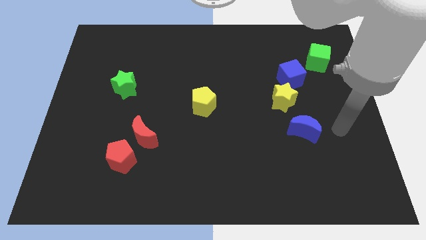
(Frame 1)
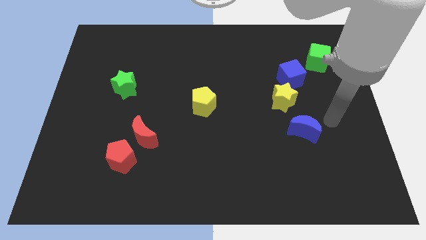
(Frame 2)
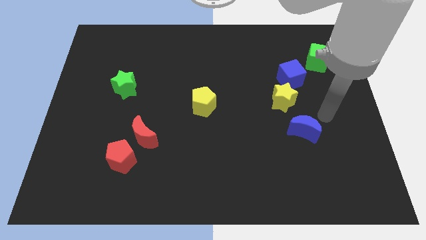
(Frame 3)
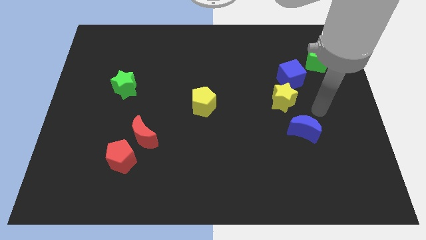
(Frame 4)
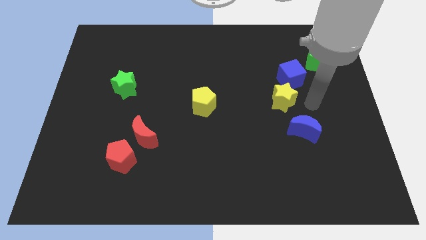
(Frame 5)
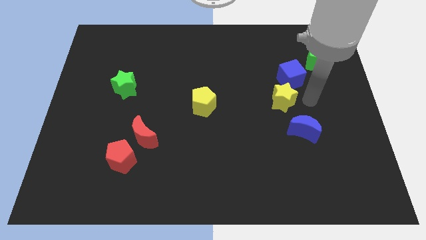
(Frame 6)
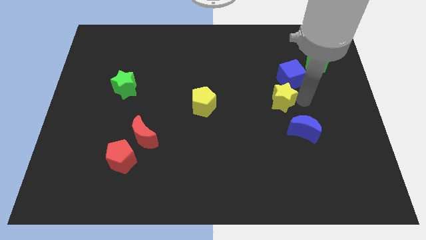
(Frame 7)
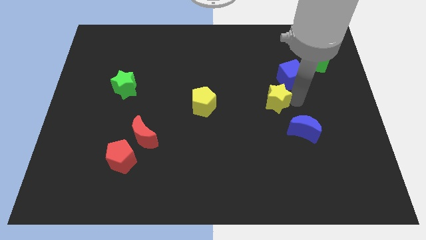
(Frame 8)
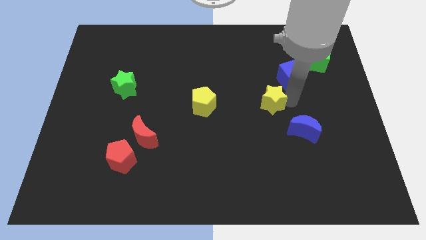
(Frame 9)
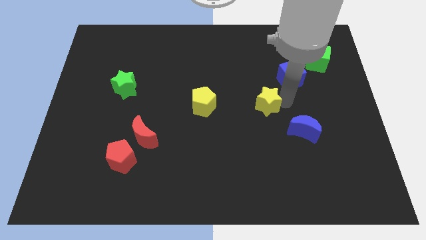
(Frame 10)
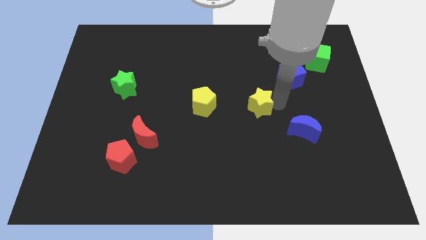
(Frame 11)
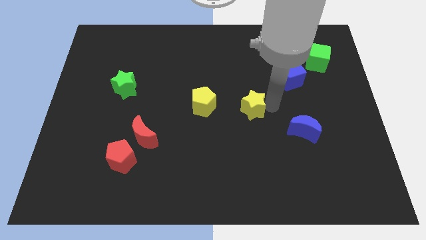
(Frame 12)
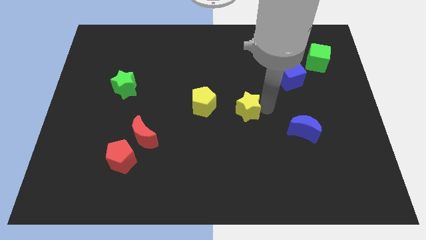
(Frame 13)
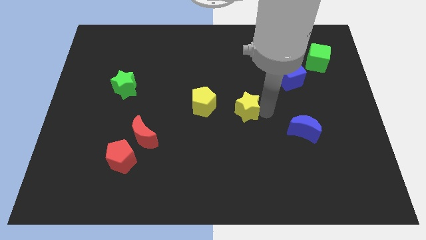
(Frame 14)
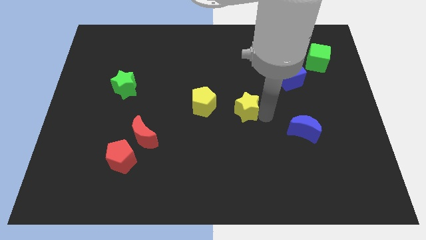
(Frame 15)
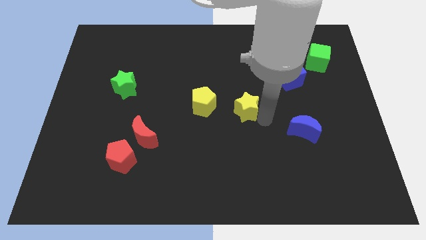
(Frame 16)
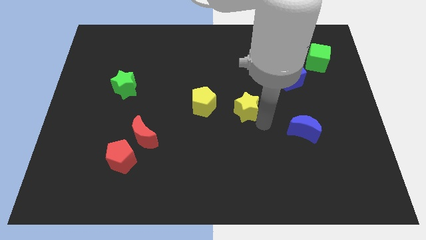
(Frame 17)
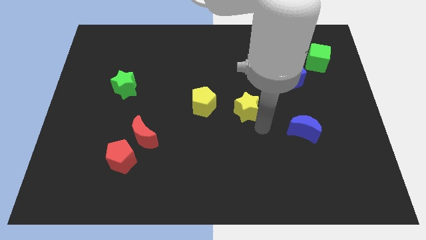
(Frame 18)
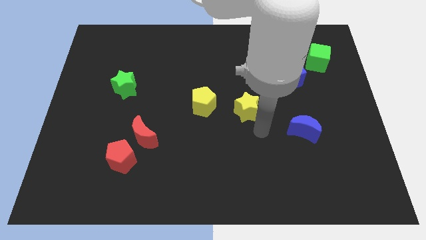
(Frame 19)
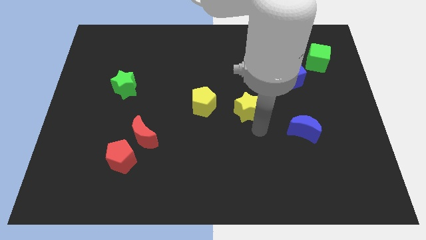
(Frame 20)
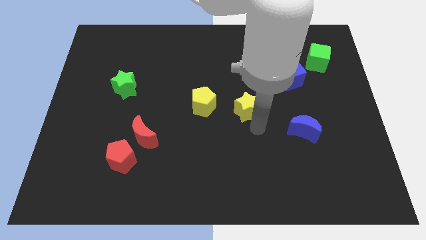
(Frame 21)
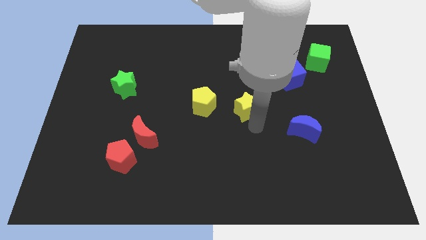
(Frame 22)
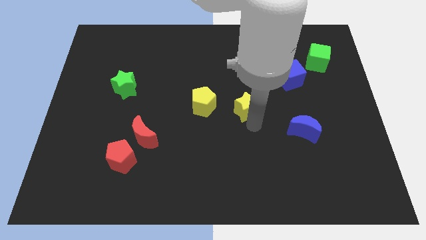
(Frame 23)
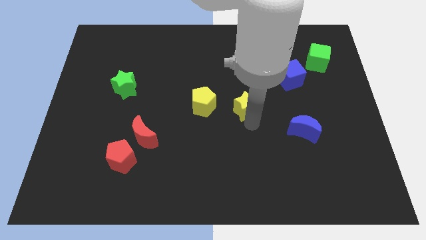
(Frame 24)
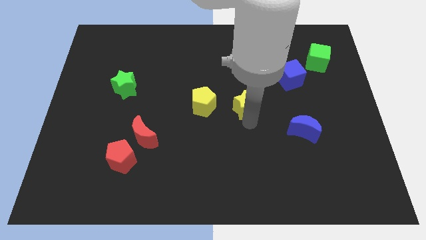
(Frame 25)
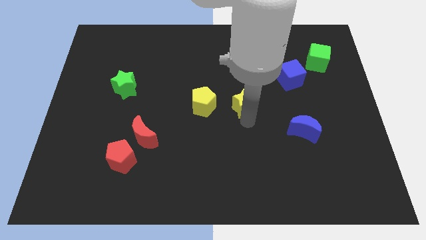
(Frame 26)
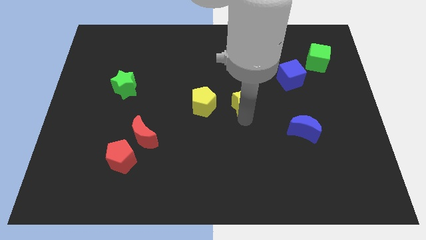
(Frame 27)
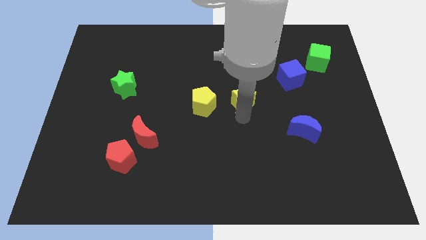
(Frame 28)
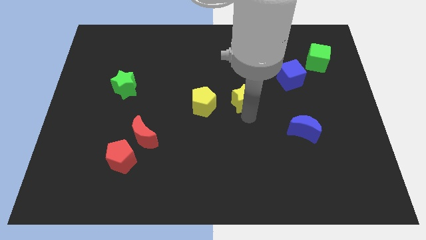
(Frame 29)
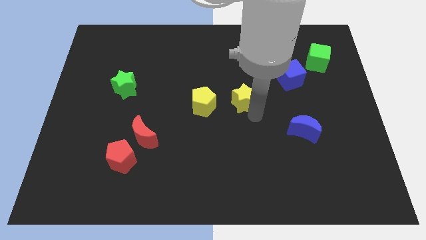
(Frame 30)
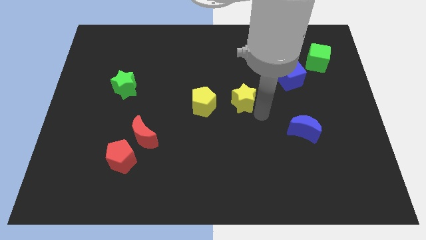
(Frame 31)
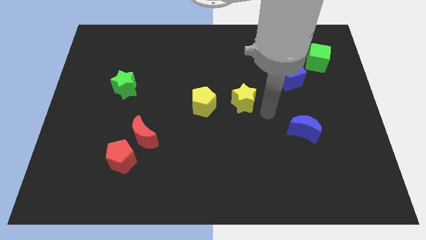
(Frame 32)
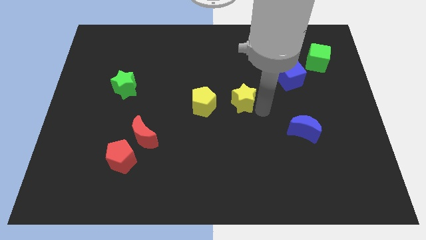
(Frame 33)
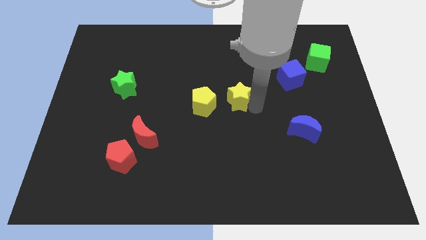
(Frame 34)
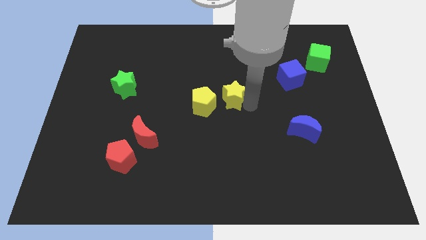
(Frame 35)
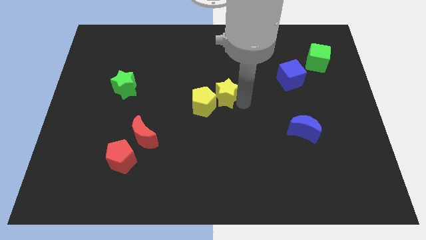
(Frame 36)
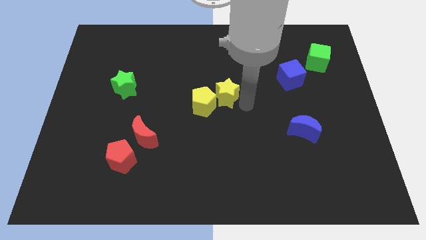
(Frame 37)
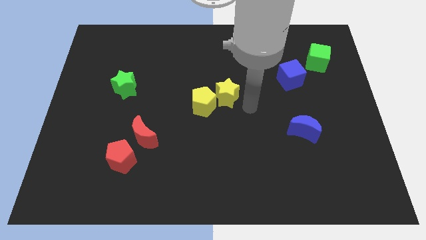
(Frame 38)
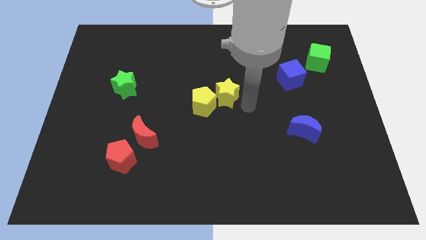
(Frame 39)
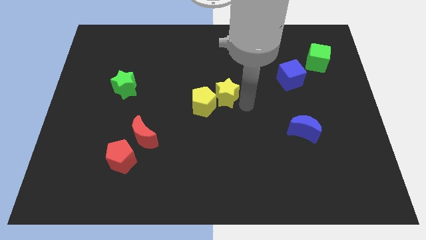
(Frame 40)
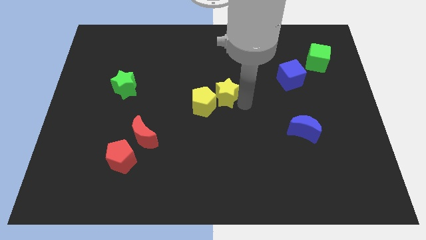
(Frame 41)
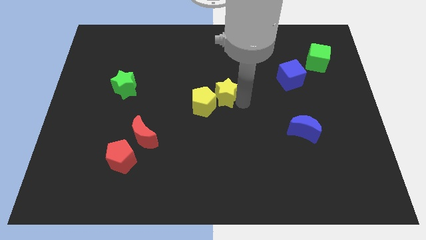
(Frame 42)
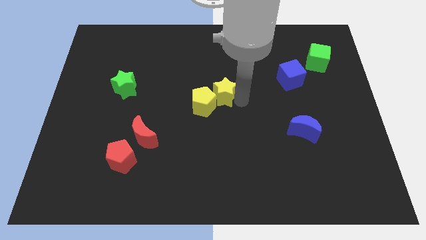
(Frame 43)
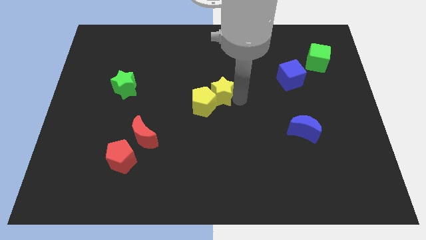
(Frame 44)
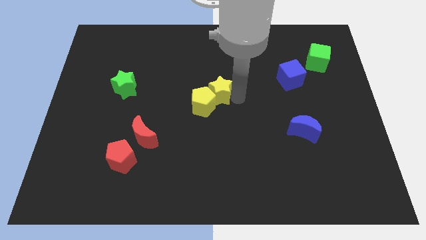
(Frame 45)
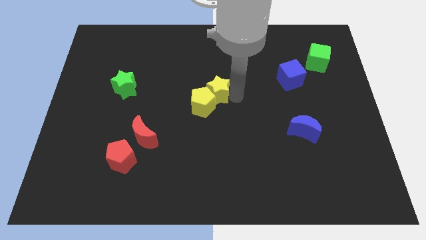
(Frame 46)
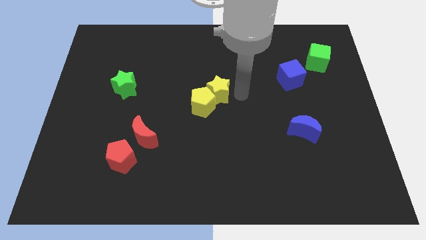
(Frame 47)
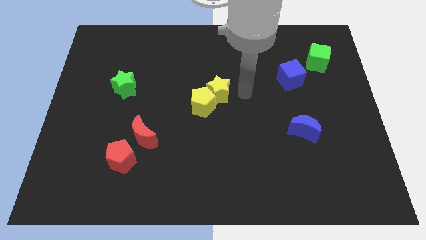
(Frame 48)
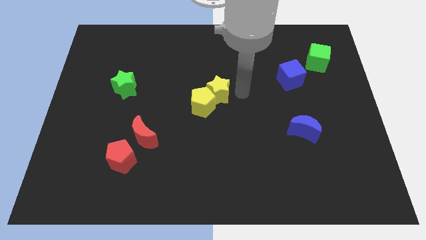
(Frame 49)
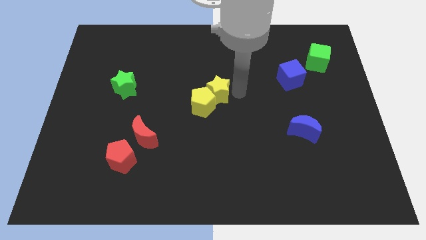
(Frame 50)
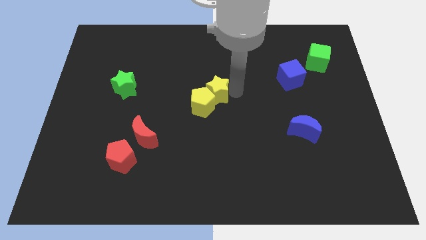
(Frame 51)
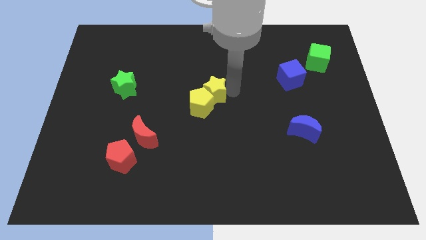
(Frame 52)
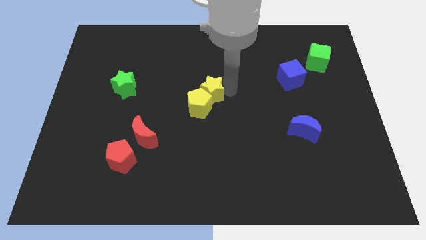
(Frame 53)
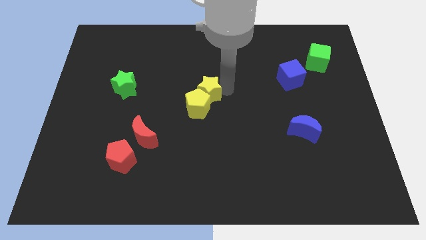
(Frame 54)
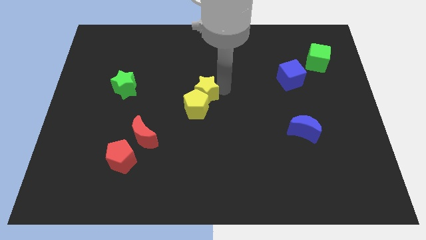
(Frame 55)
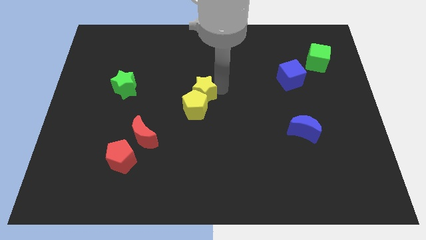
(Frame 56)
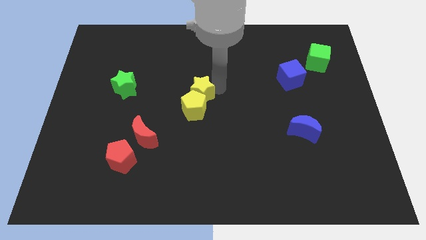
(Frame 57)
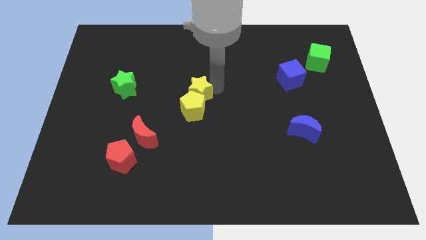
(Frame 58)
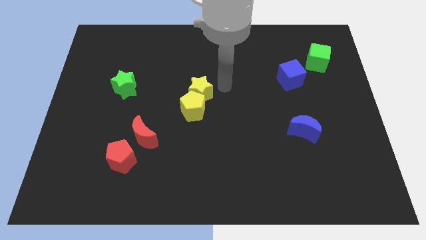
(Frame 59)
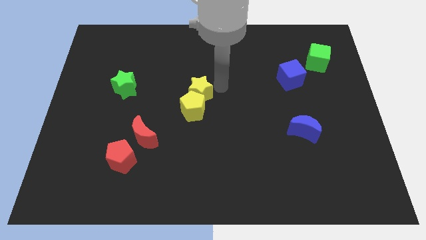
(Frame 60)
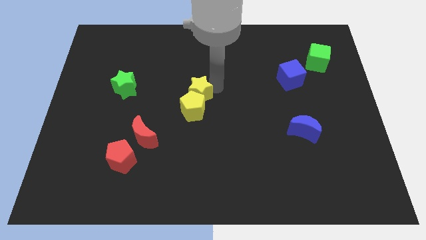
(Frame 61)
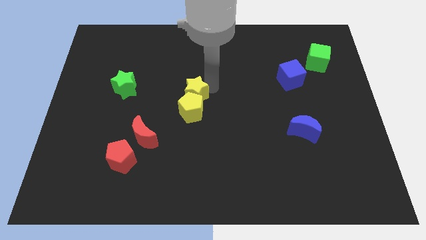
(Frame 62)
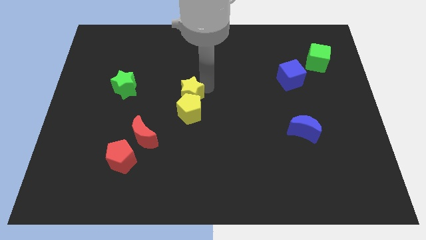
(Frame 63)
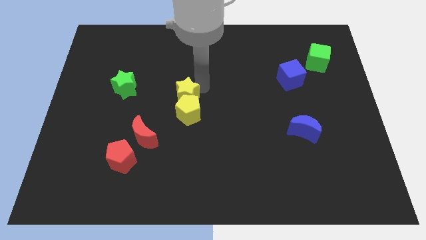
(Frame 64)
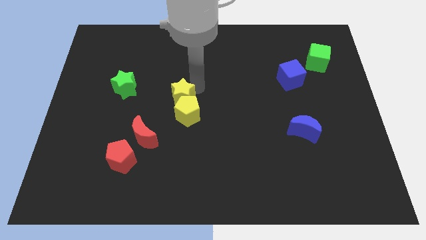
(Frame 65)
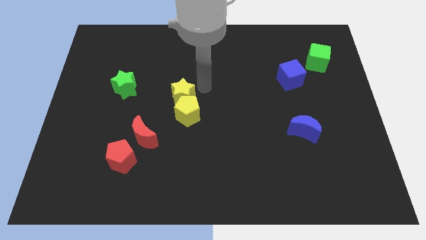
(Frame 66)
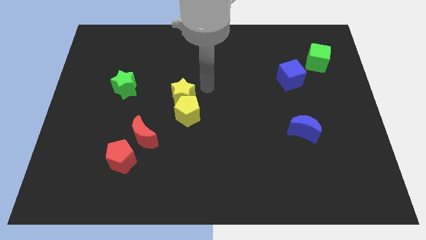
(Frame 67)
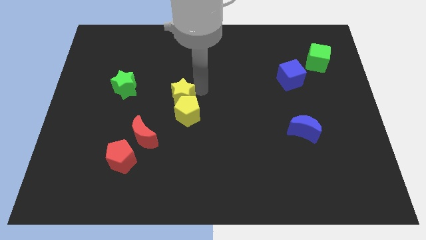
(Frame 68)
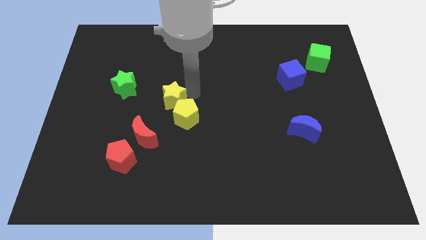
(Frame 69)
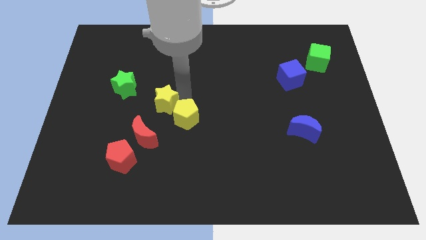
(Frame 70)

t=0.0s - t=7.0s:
move the yellow star left of the yellow pentagon

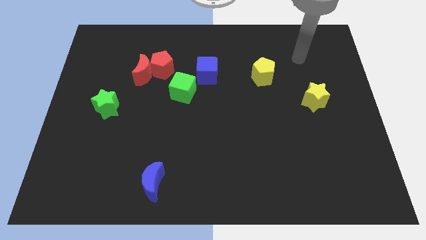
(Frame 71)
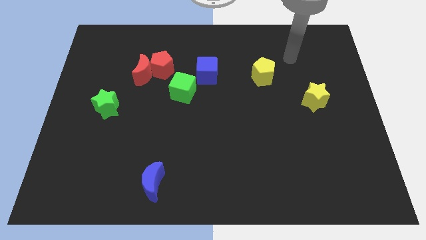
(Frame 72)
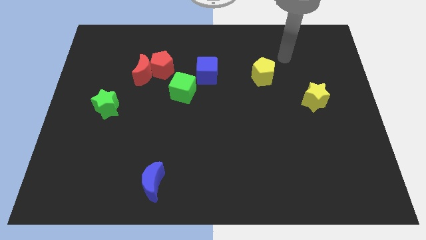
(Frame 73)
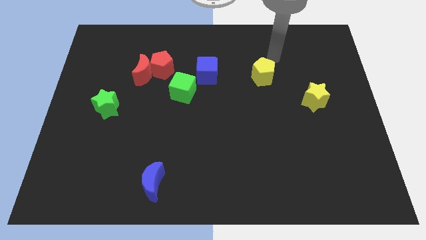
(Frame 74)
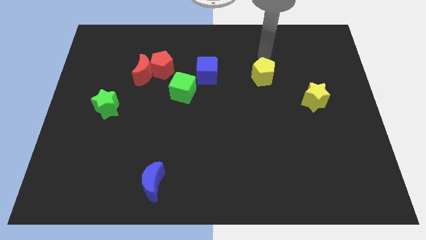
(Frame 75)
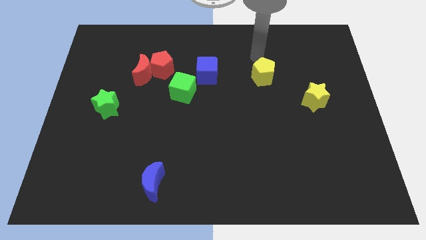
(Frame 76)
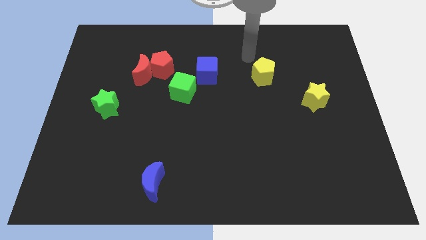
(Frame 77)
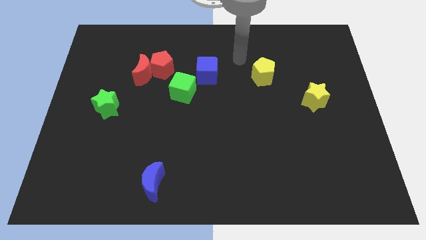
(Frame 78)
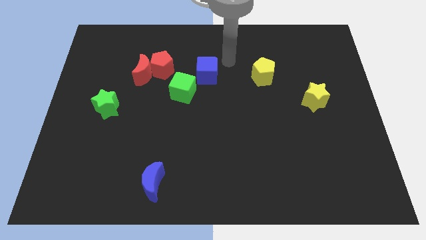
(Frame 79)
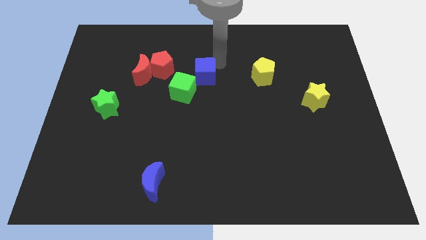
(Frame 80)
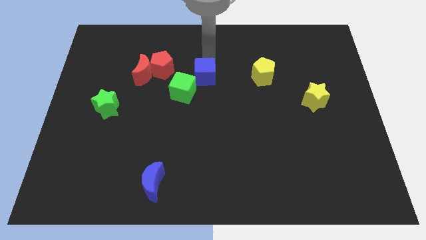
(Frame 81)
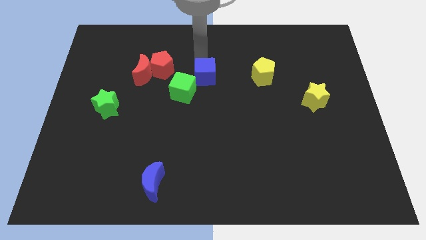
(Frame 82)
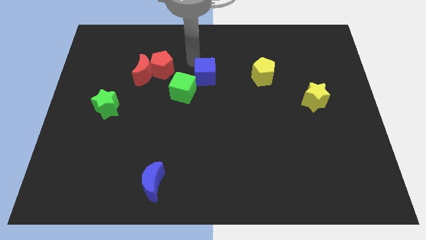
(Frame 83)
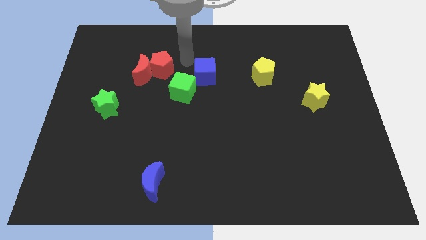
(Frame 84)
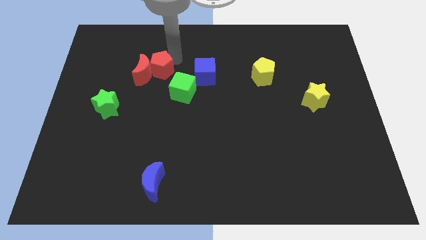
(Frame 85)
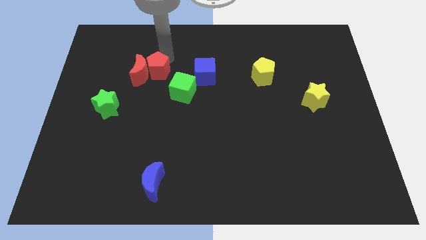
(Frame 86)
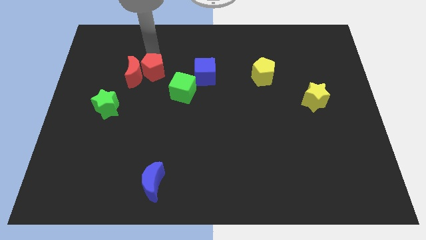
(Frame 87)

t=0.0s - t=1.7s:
slide the red moon to the top right side of the green star
